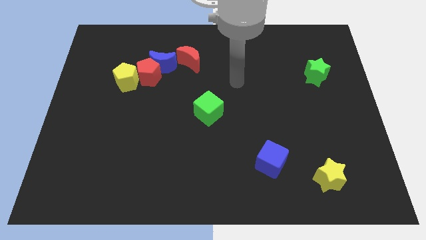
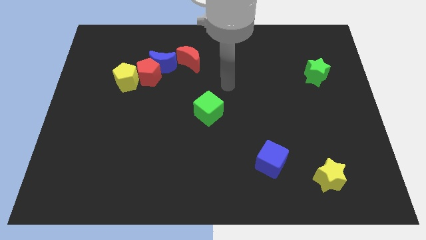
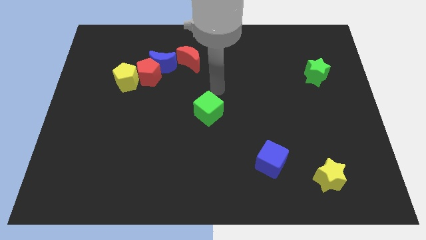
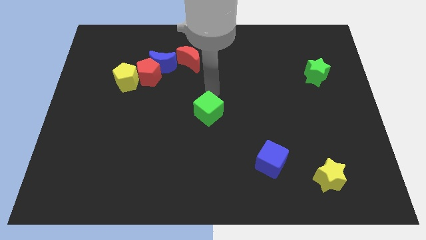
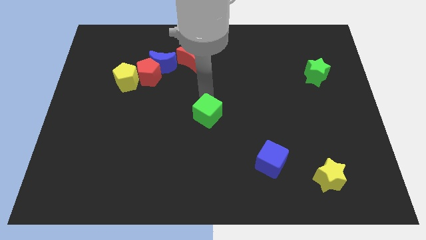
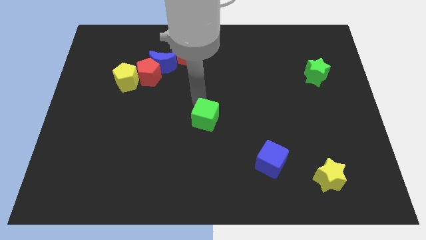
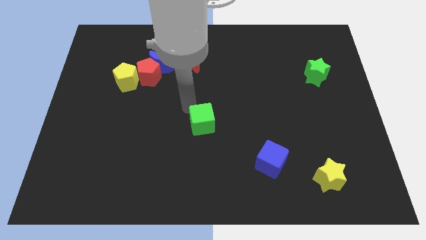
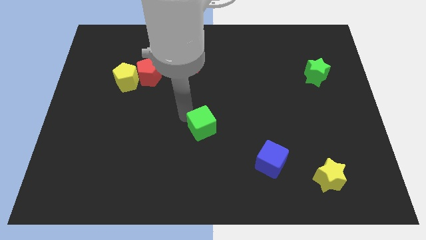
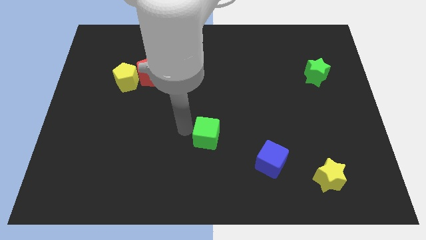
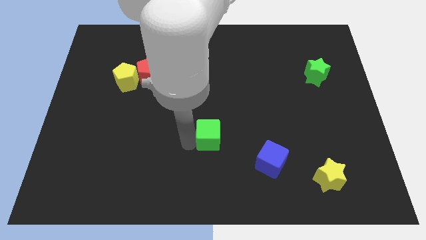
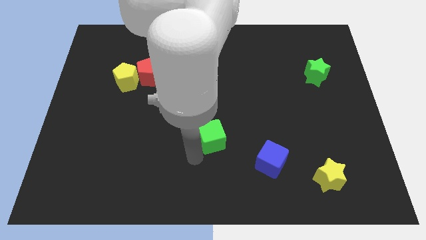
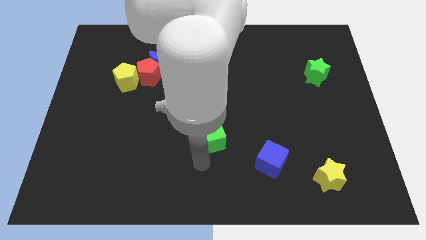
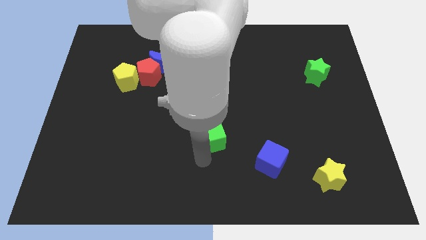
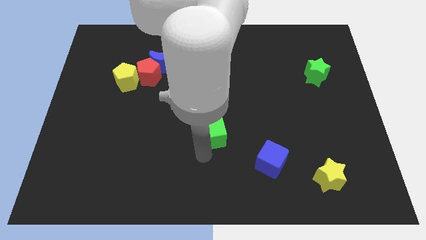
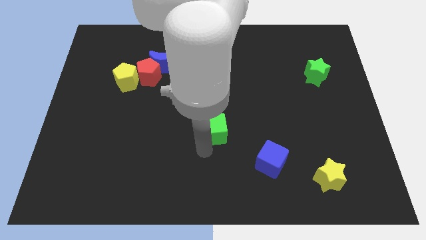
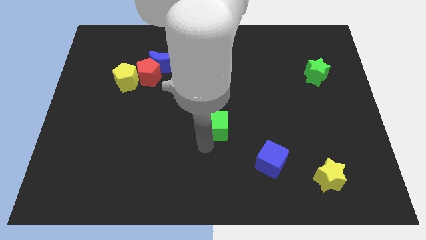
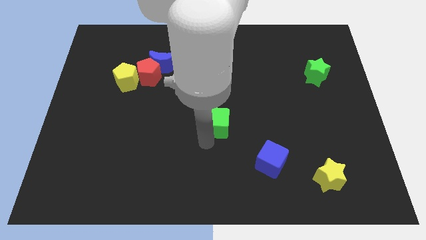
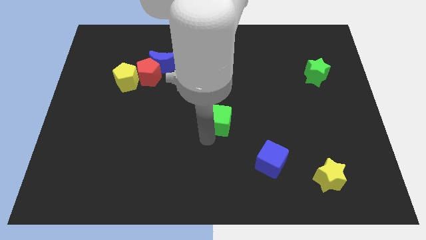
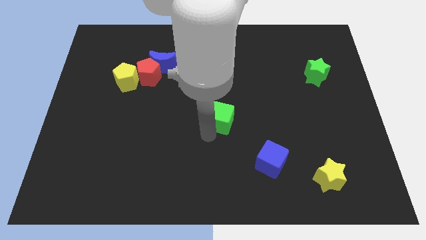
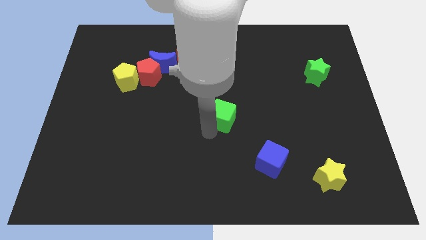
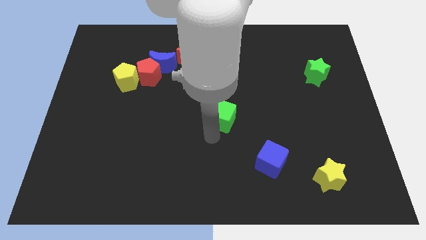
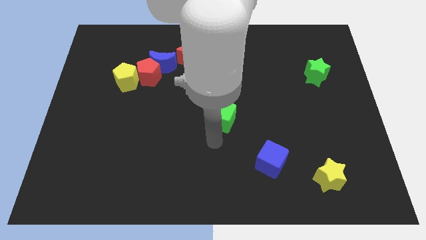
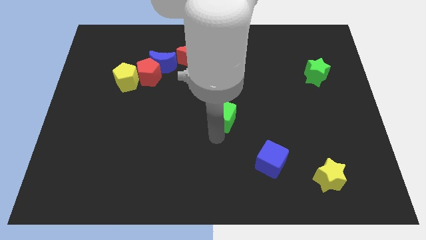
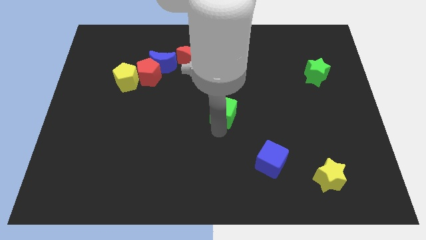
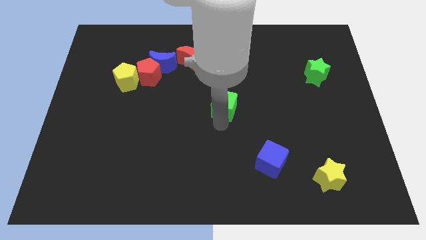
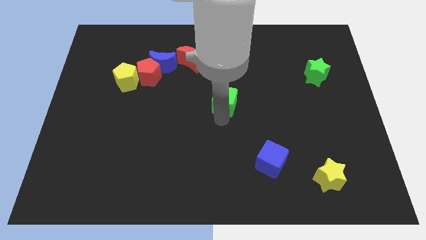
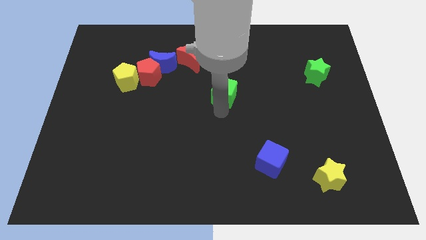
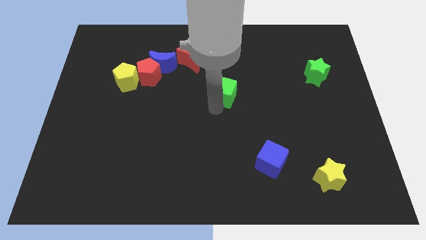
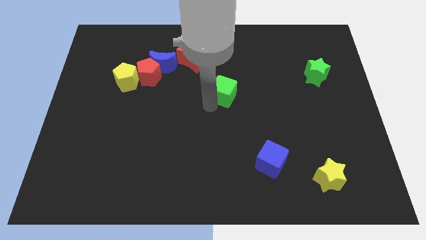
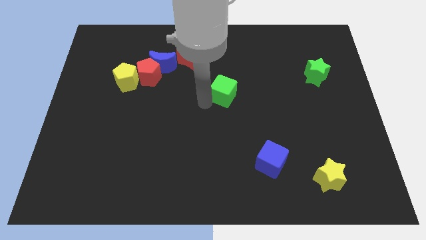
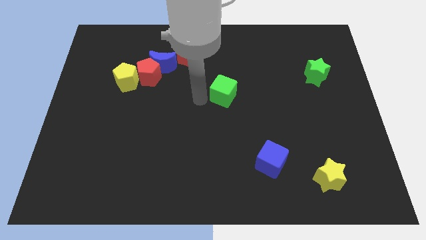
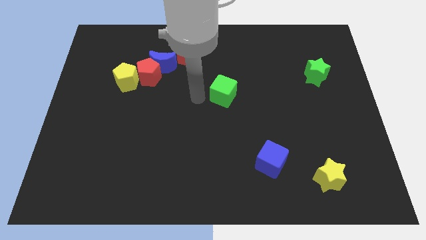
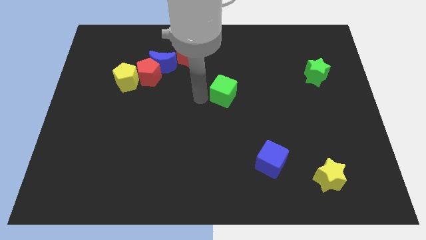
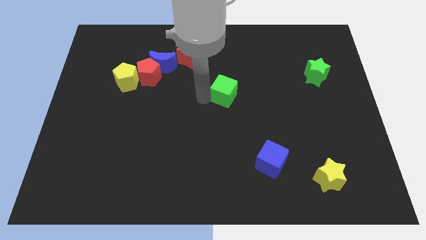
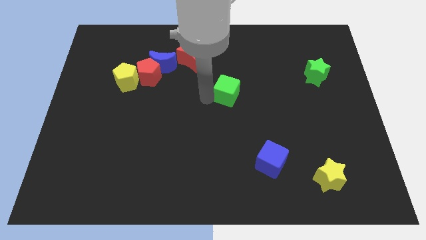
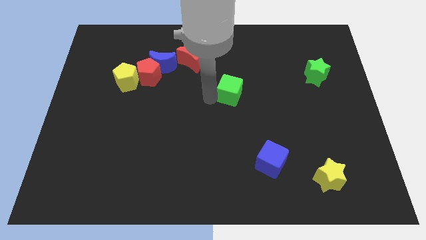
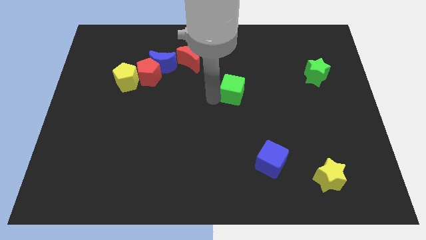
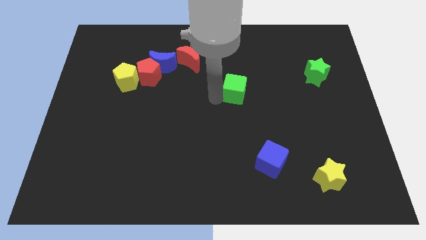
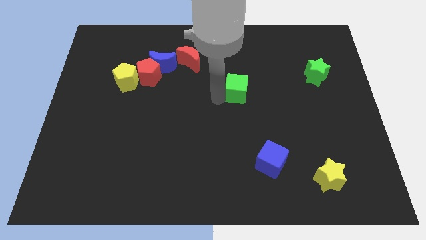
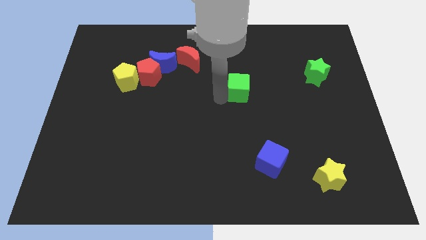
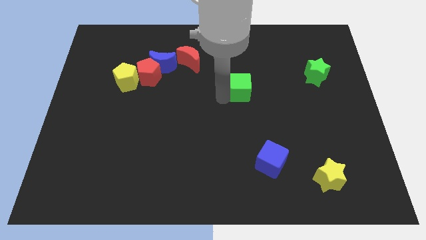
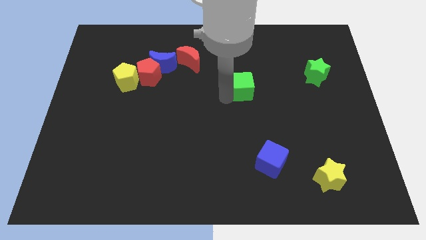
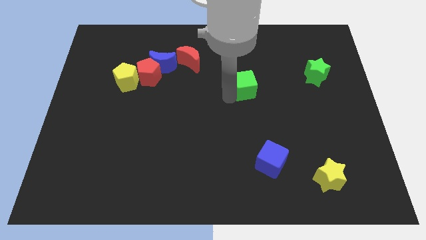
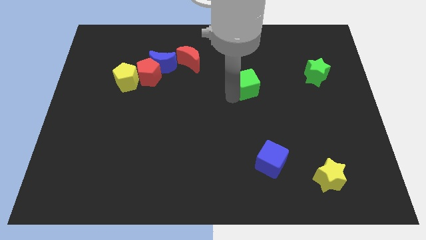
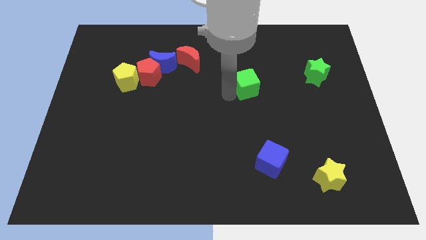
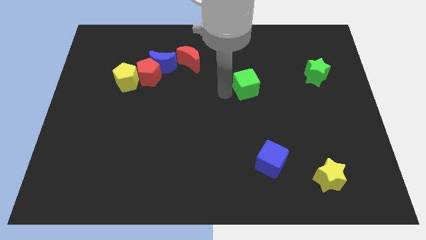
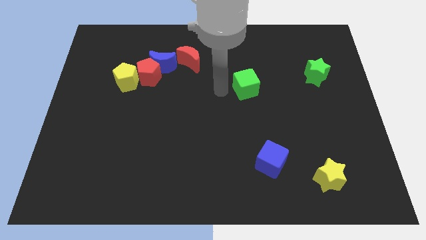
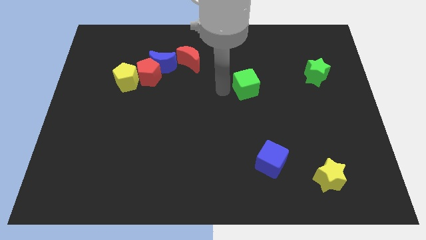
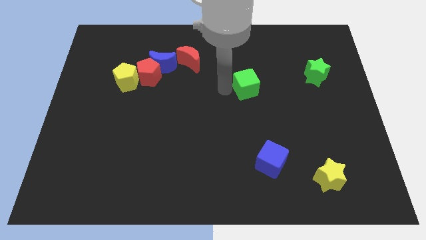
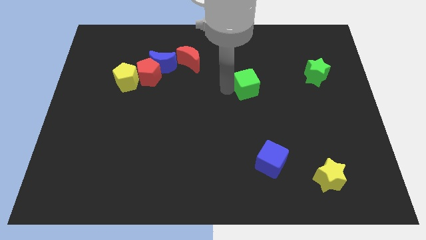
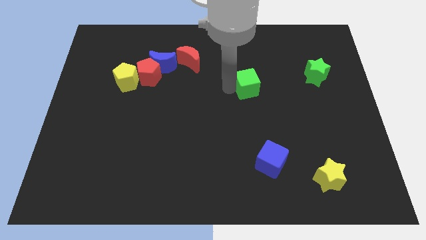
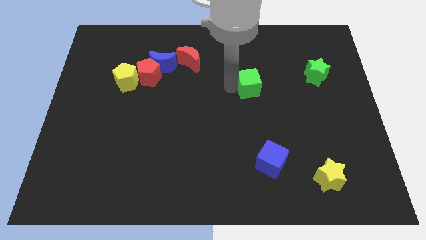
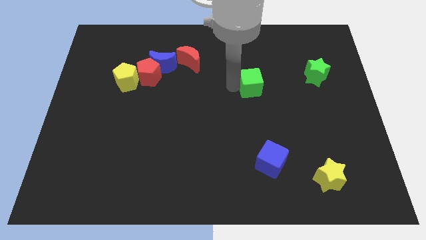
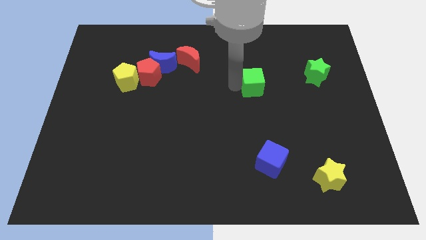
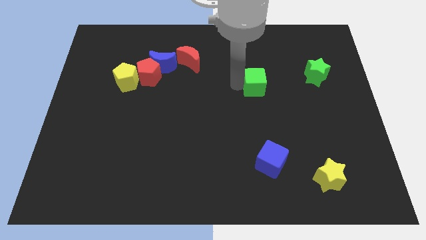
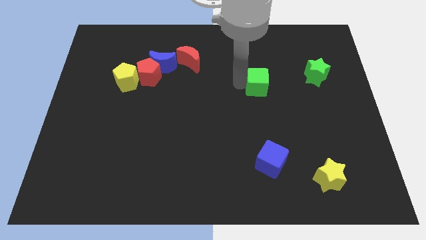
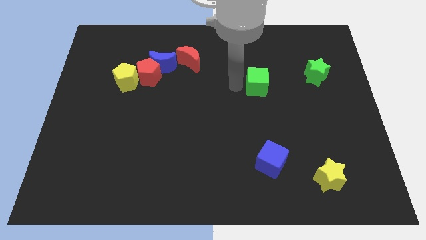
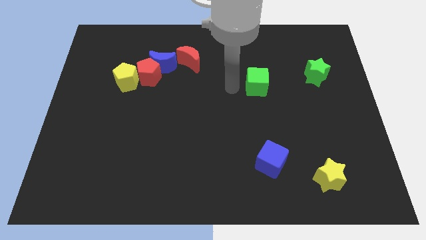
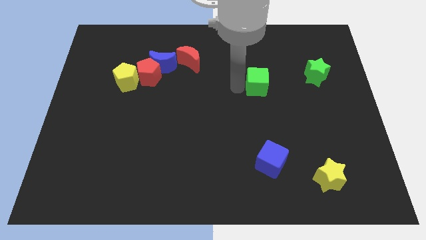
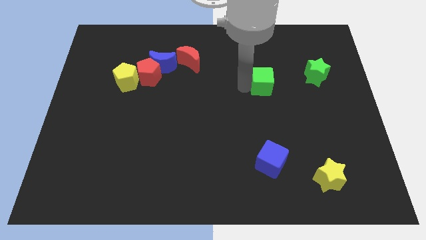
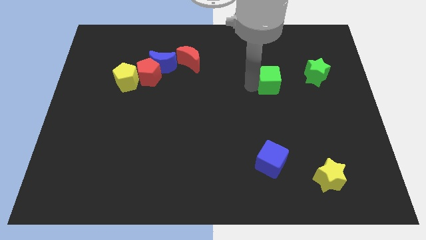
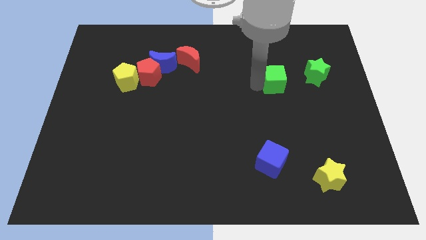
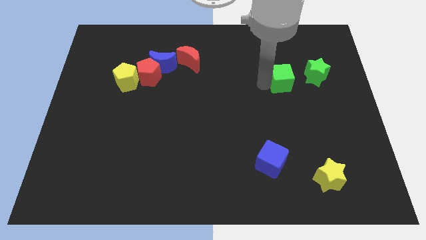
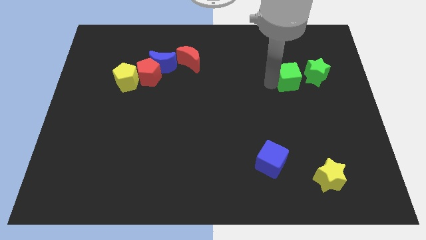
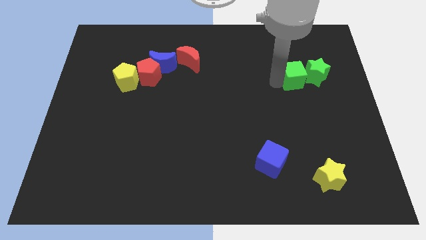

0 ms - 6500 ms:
push the green cube to the green star

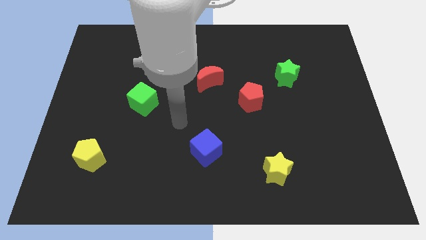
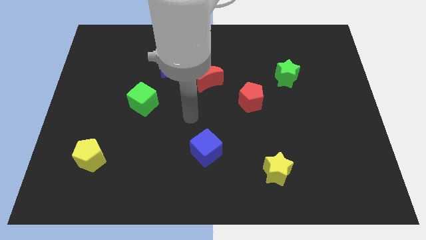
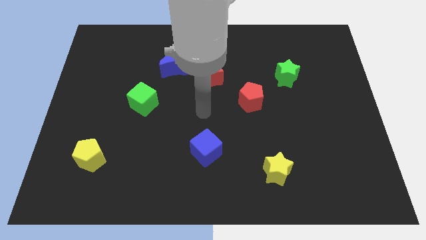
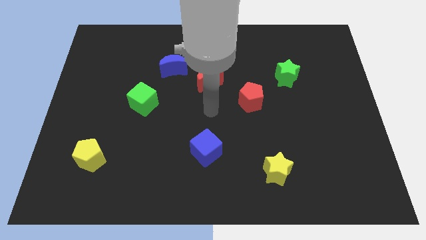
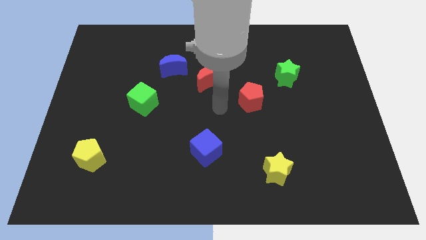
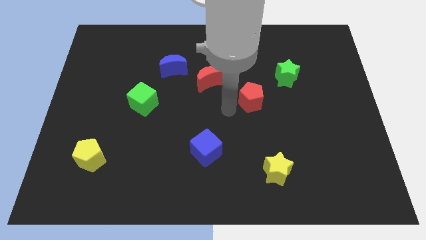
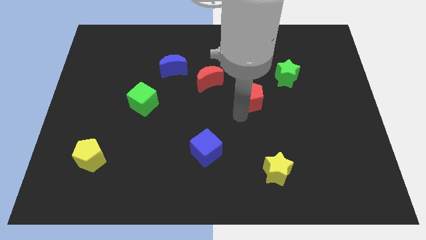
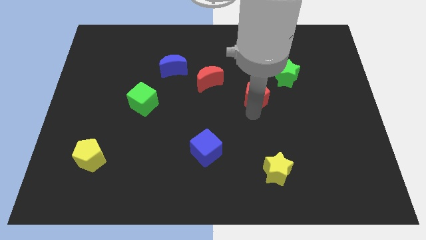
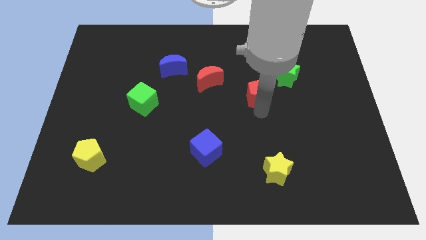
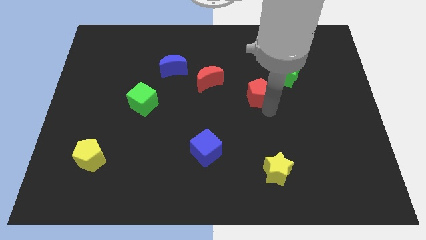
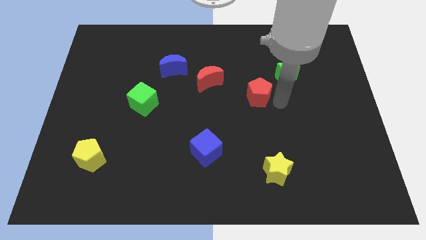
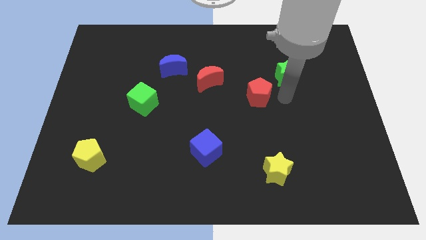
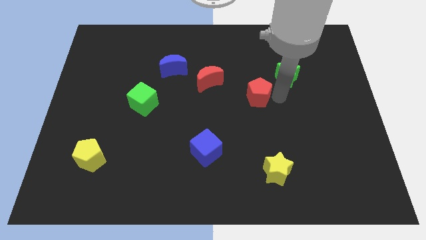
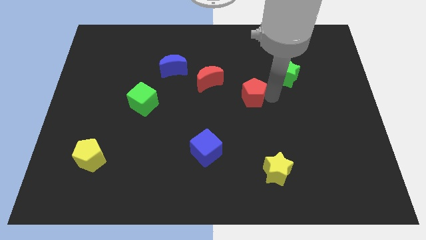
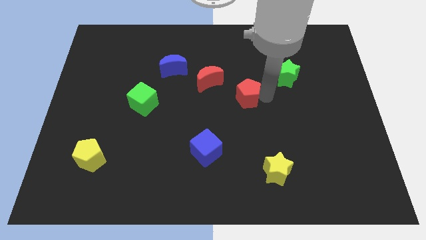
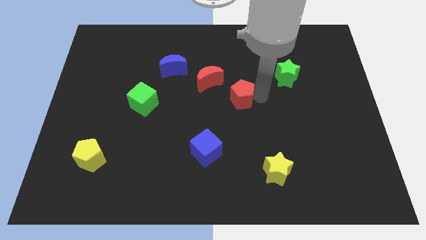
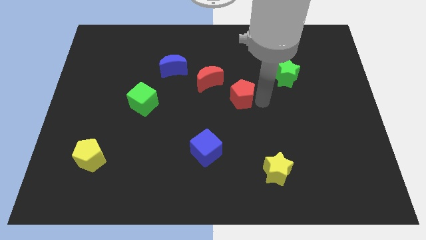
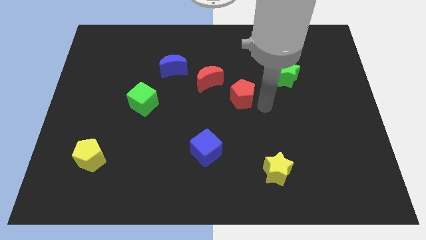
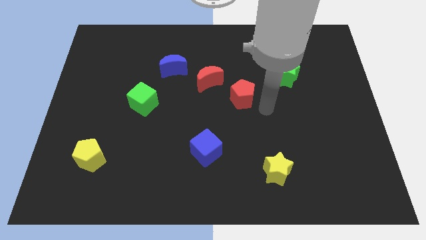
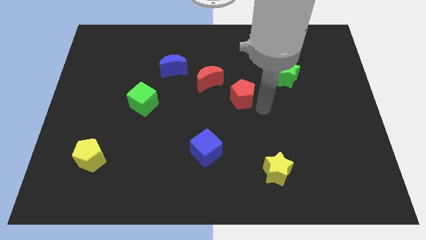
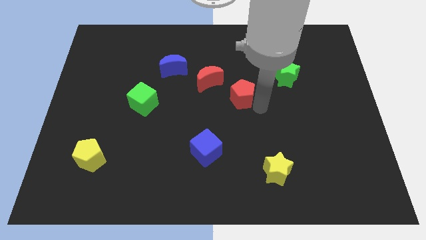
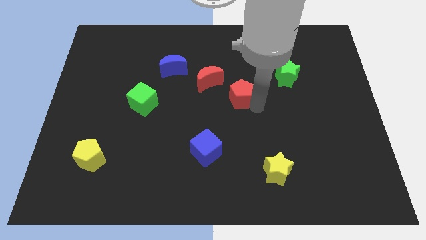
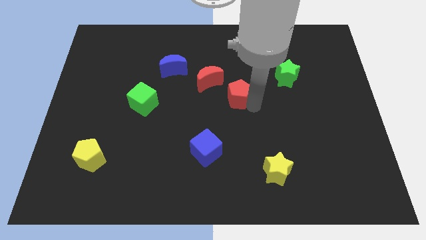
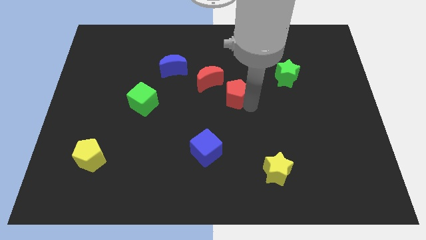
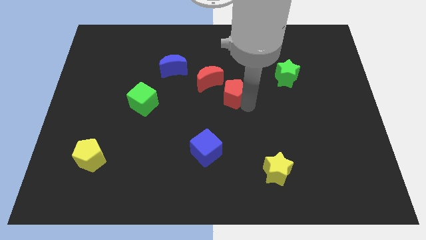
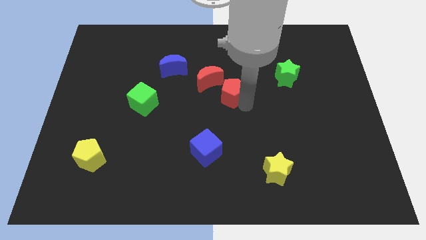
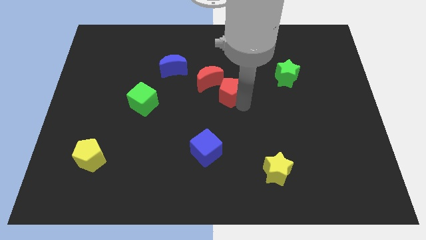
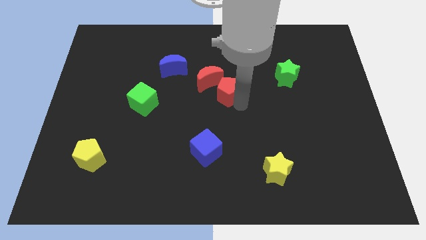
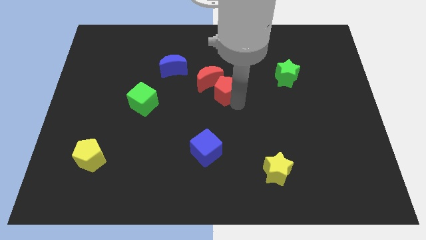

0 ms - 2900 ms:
push the red pentagon close to the red moon
